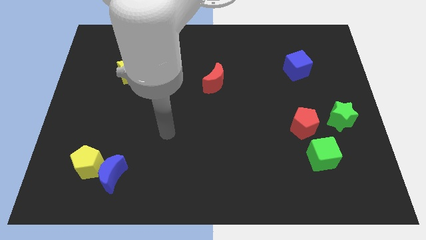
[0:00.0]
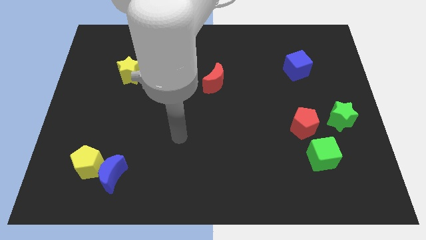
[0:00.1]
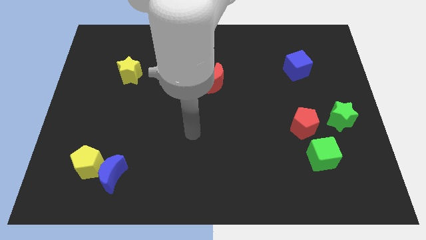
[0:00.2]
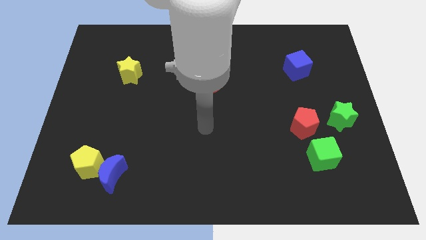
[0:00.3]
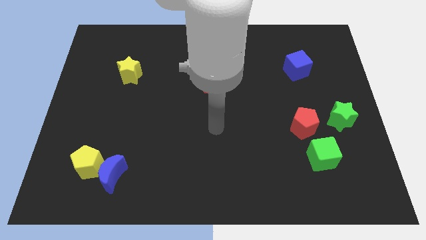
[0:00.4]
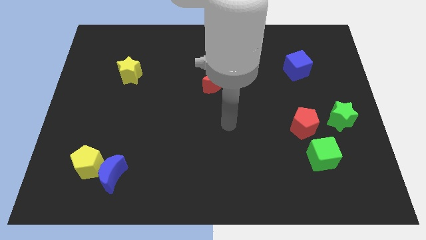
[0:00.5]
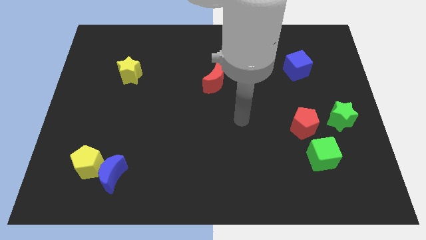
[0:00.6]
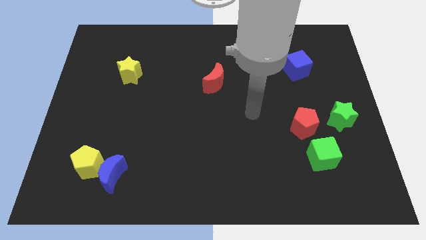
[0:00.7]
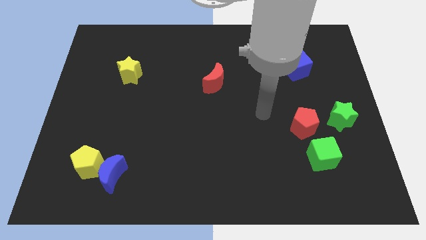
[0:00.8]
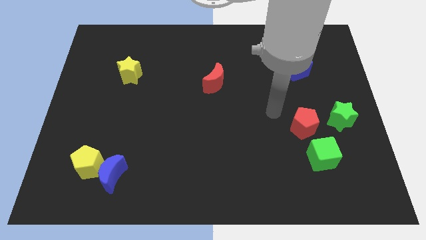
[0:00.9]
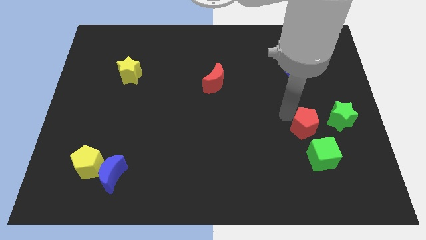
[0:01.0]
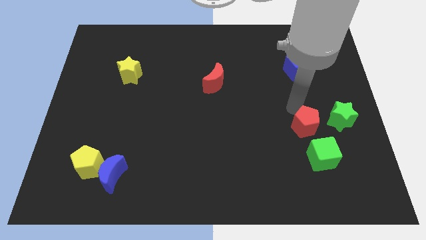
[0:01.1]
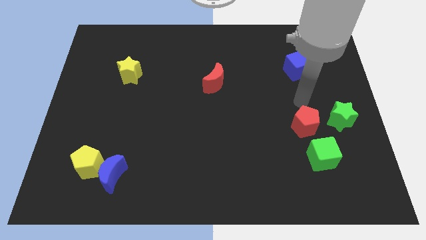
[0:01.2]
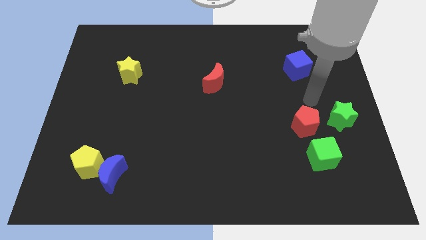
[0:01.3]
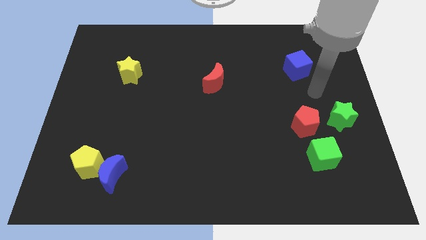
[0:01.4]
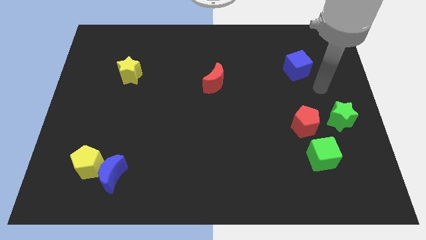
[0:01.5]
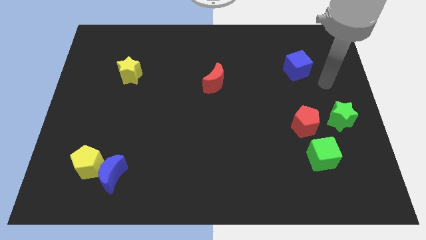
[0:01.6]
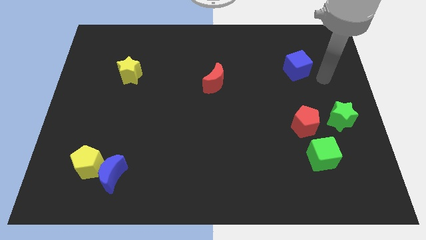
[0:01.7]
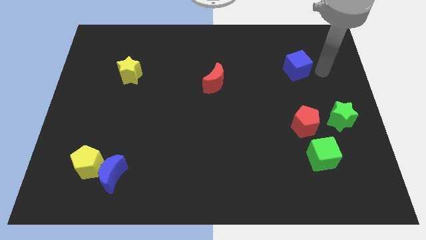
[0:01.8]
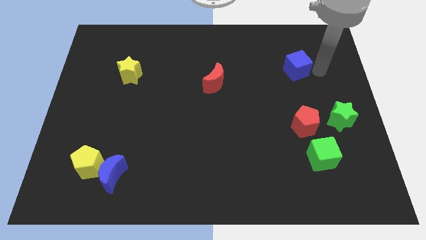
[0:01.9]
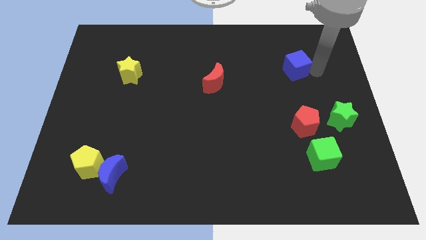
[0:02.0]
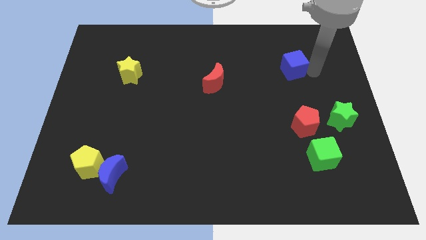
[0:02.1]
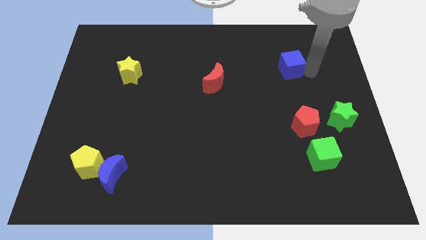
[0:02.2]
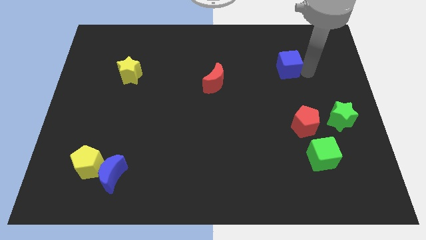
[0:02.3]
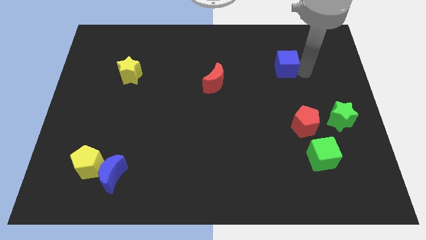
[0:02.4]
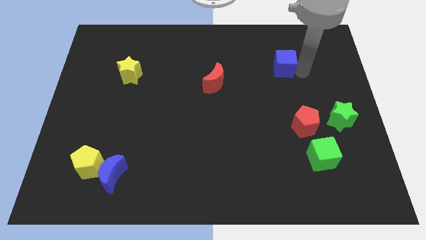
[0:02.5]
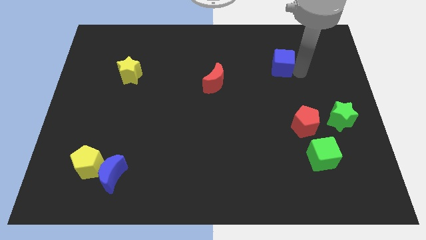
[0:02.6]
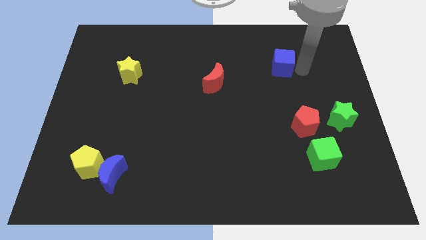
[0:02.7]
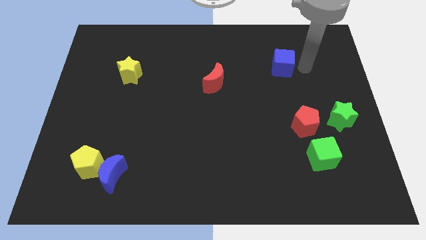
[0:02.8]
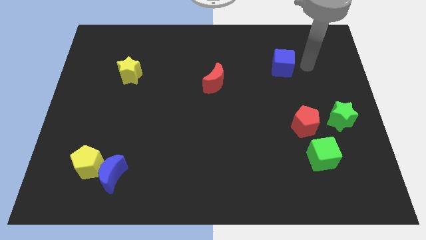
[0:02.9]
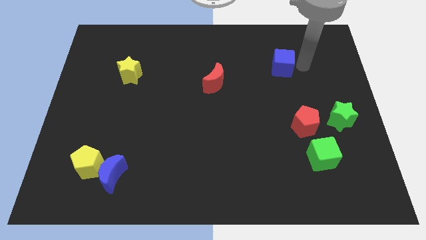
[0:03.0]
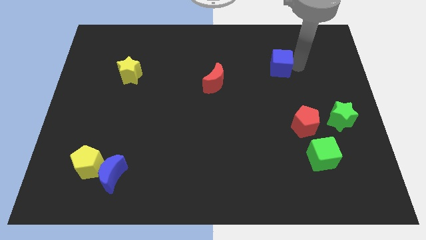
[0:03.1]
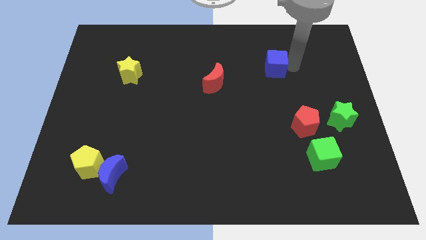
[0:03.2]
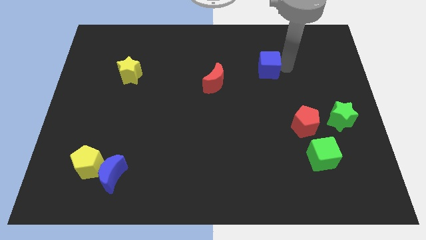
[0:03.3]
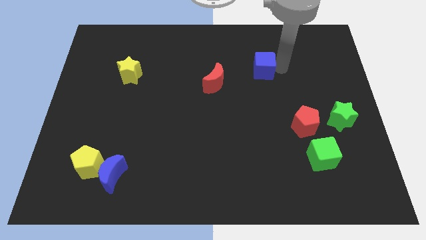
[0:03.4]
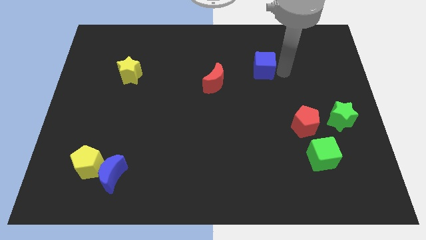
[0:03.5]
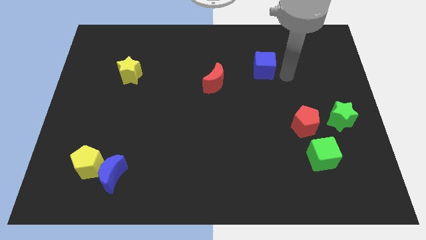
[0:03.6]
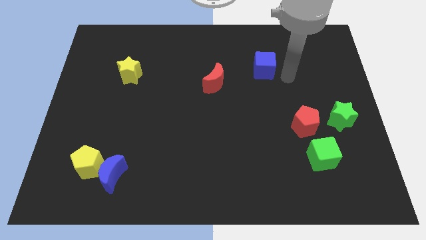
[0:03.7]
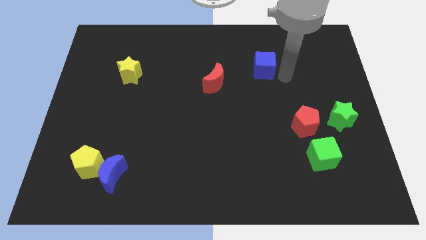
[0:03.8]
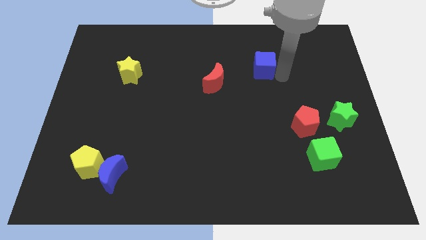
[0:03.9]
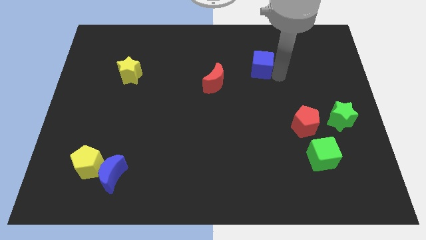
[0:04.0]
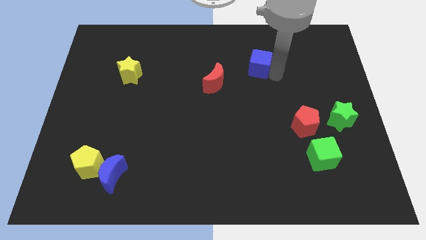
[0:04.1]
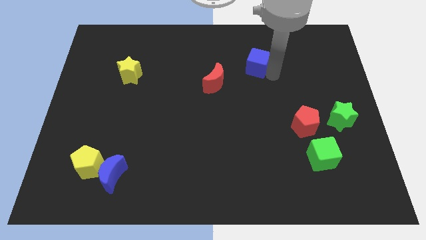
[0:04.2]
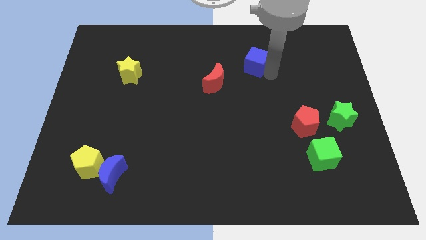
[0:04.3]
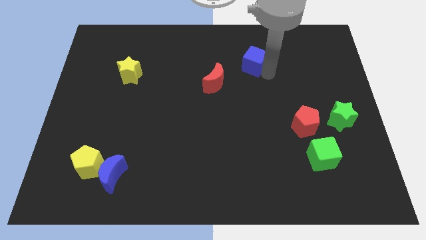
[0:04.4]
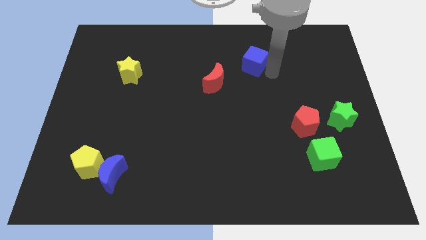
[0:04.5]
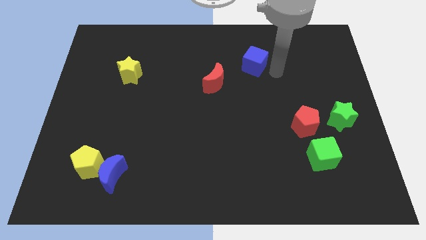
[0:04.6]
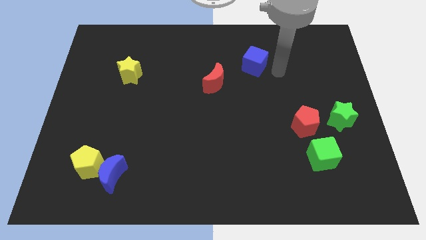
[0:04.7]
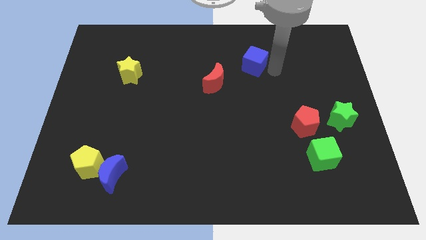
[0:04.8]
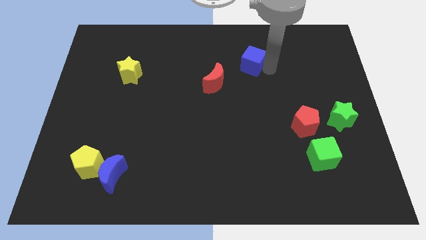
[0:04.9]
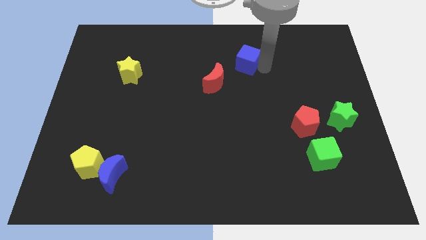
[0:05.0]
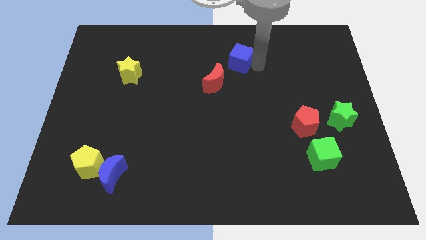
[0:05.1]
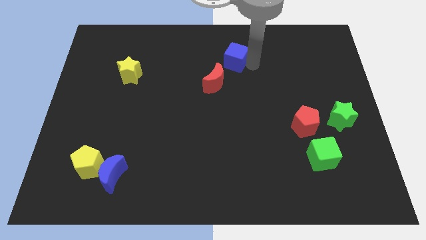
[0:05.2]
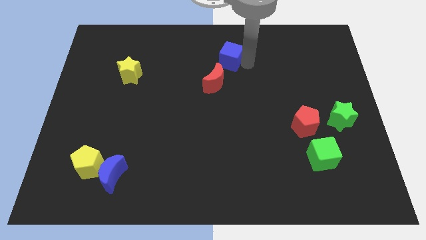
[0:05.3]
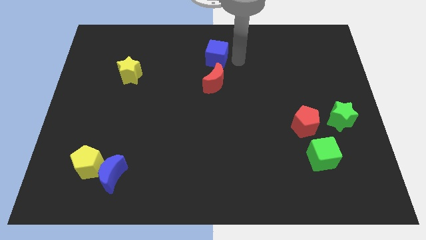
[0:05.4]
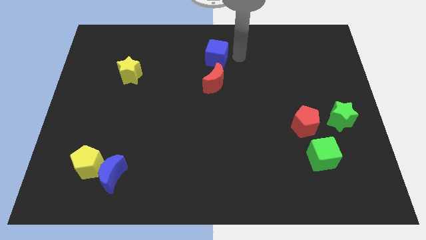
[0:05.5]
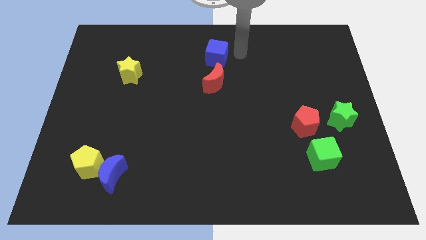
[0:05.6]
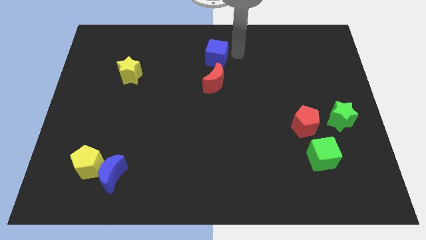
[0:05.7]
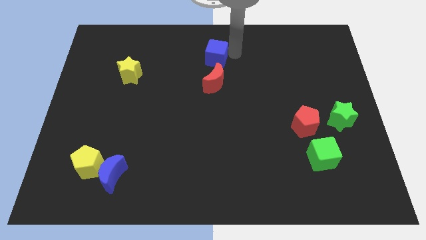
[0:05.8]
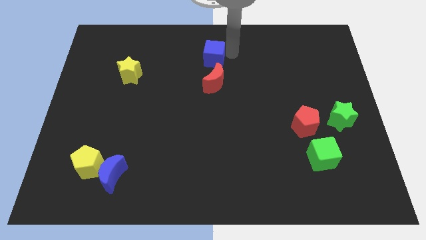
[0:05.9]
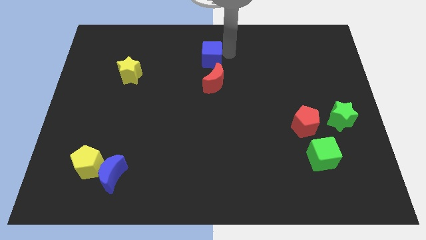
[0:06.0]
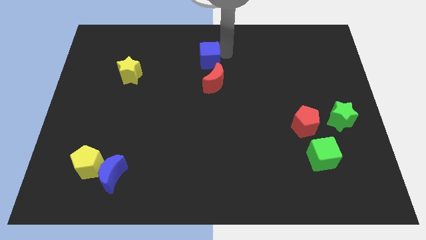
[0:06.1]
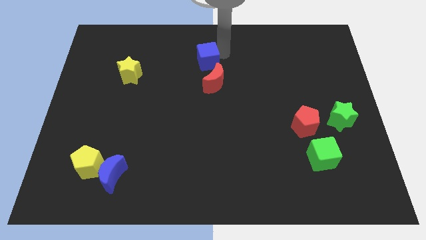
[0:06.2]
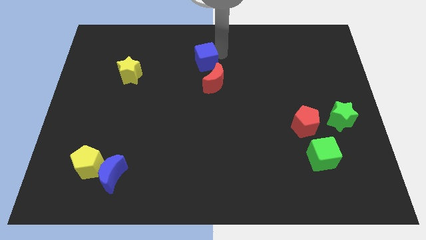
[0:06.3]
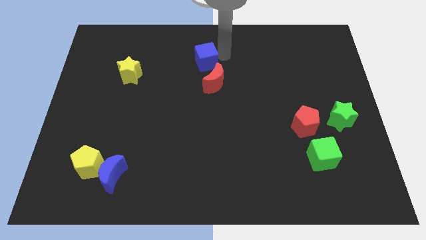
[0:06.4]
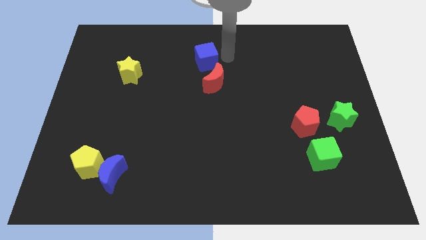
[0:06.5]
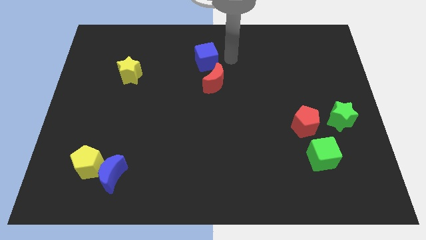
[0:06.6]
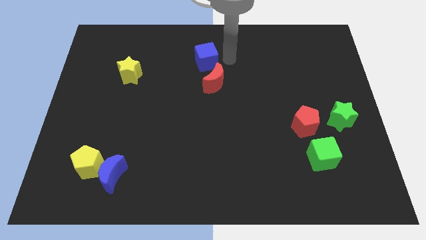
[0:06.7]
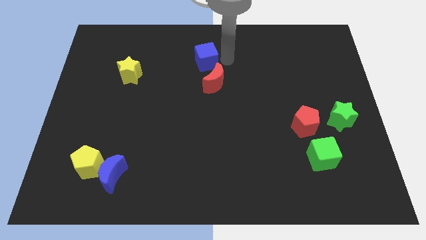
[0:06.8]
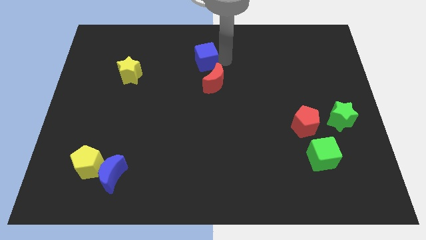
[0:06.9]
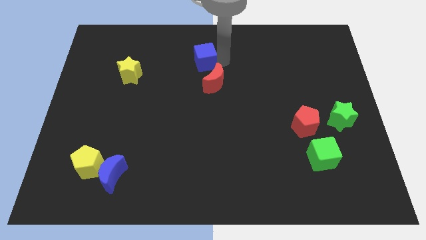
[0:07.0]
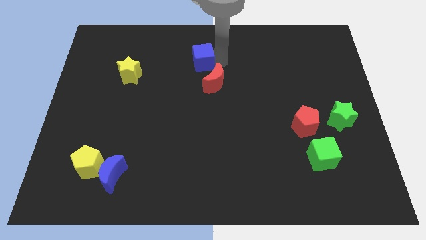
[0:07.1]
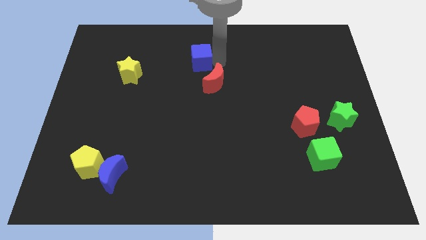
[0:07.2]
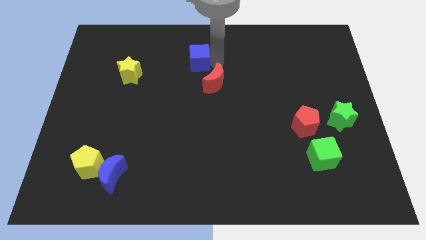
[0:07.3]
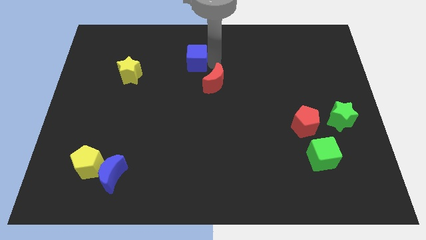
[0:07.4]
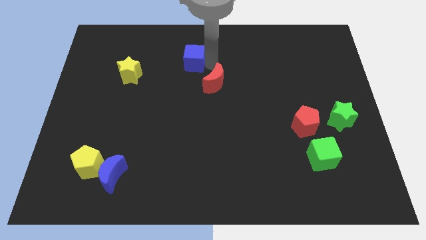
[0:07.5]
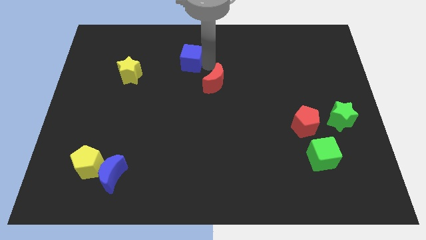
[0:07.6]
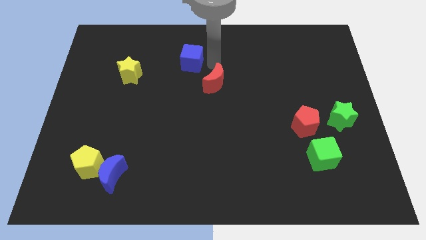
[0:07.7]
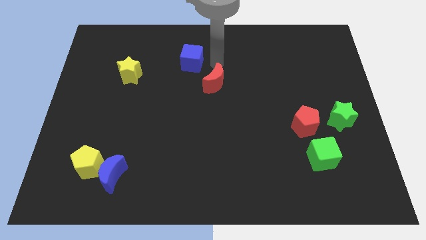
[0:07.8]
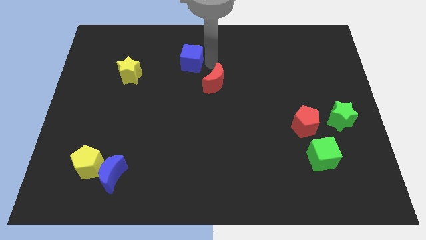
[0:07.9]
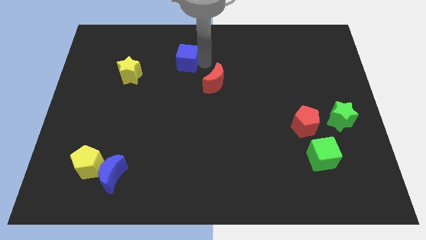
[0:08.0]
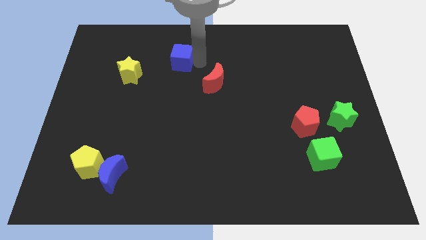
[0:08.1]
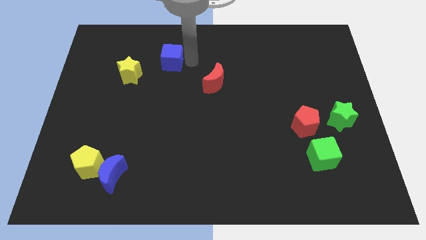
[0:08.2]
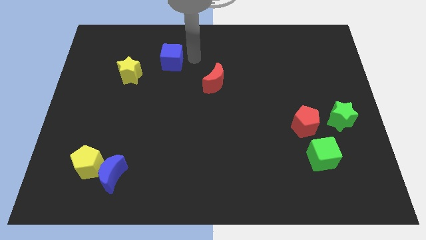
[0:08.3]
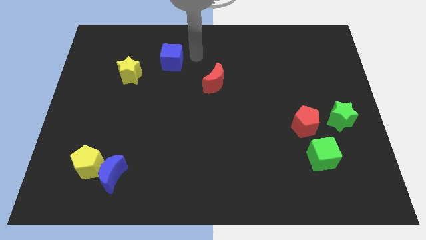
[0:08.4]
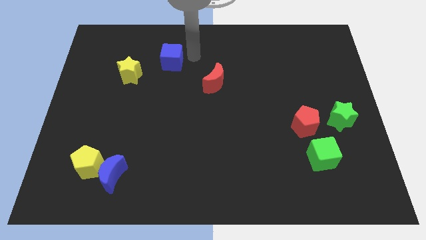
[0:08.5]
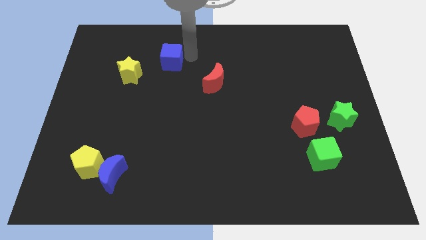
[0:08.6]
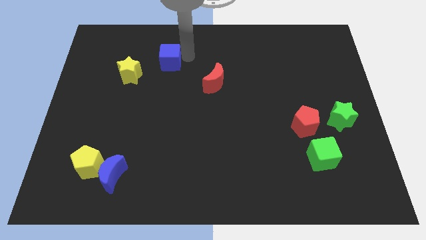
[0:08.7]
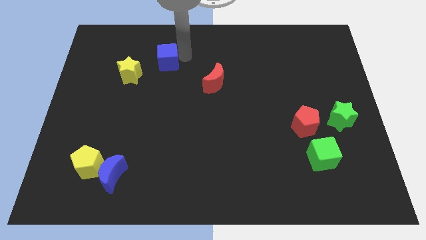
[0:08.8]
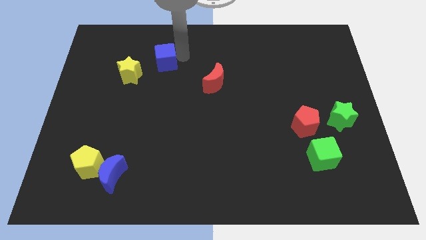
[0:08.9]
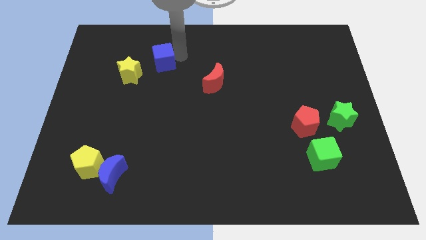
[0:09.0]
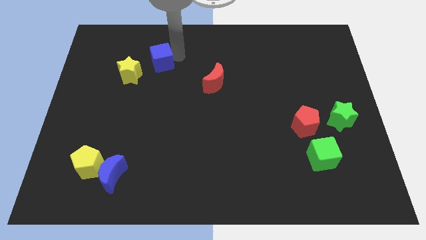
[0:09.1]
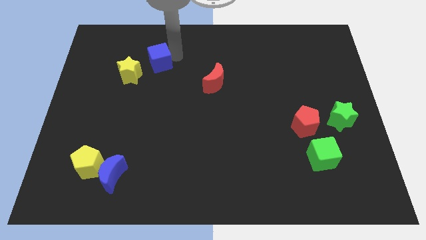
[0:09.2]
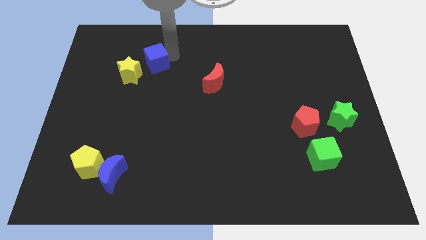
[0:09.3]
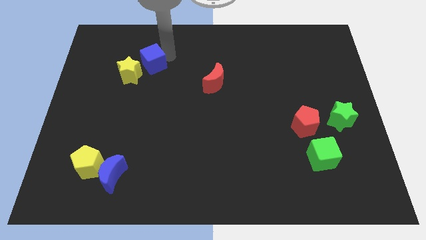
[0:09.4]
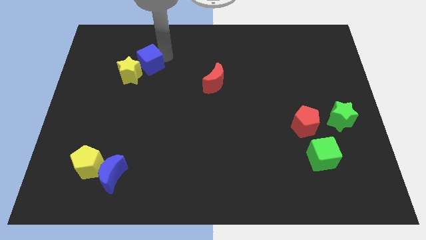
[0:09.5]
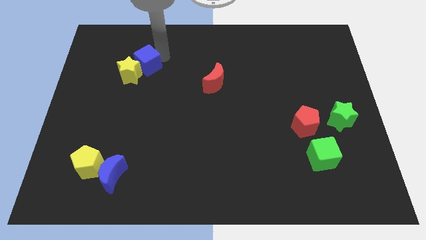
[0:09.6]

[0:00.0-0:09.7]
push the blue cube to the yellow star
